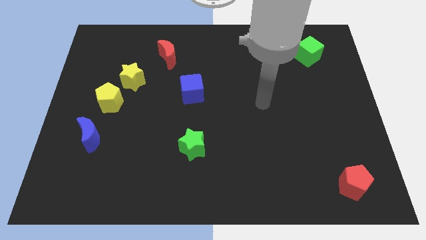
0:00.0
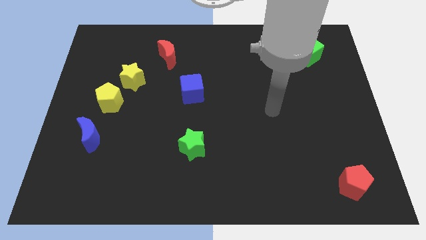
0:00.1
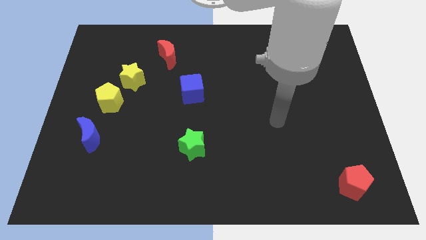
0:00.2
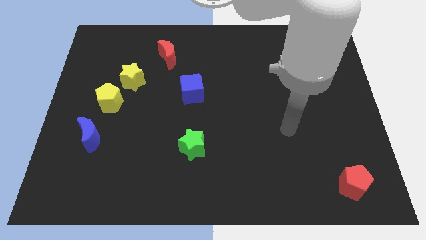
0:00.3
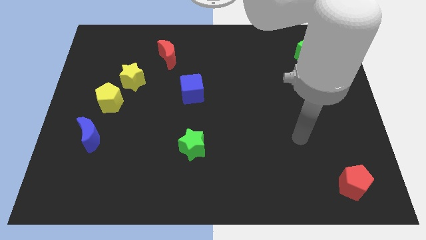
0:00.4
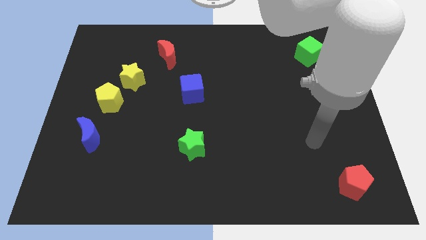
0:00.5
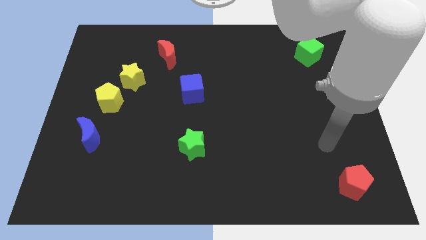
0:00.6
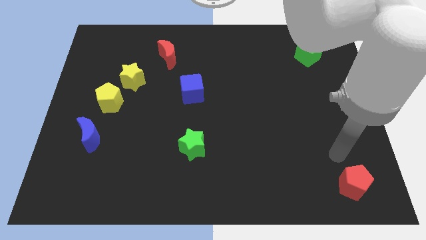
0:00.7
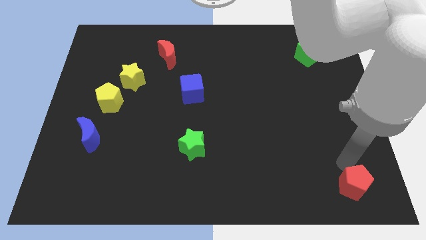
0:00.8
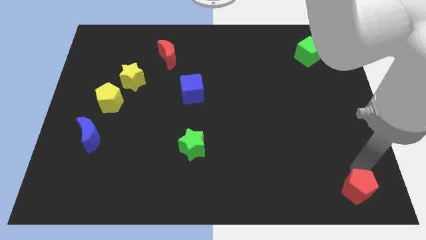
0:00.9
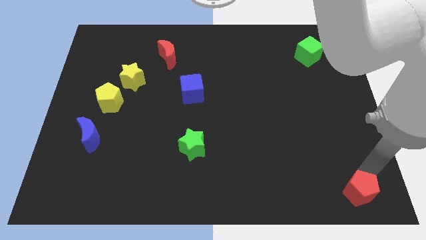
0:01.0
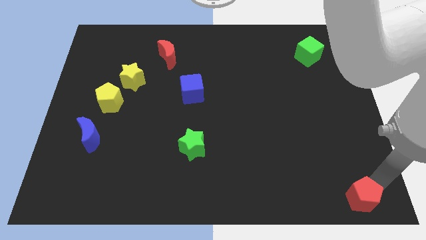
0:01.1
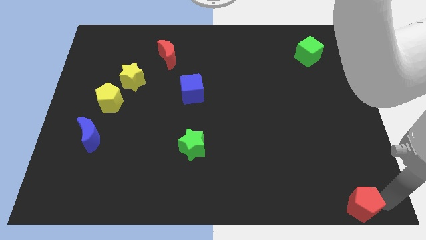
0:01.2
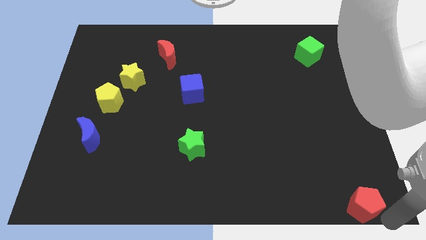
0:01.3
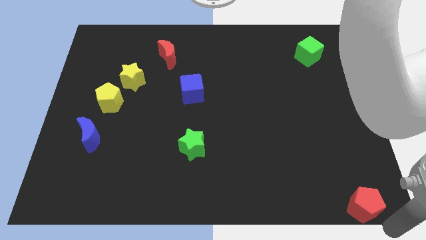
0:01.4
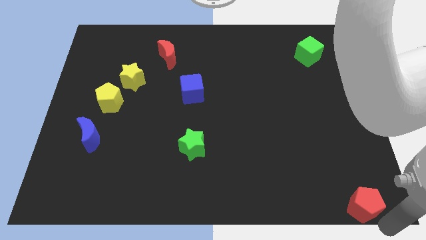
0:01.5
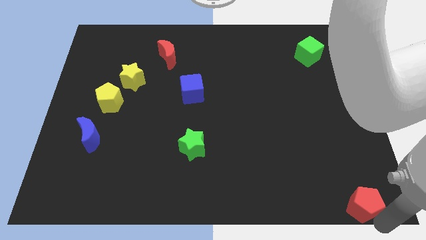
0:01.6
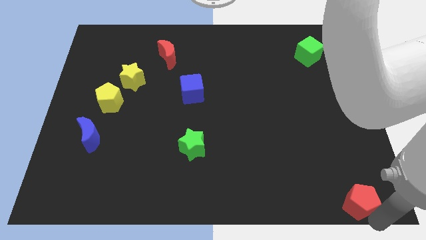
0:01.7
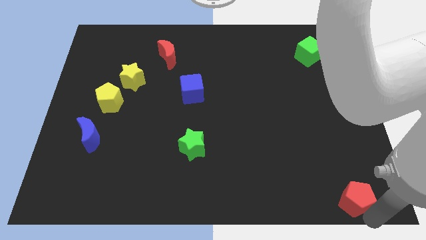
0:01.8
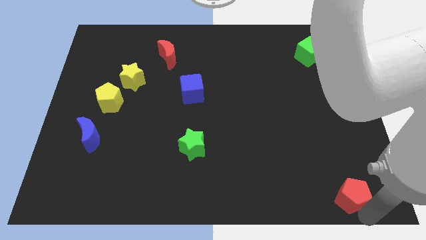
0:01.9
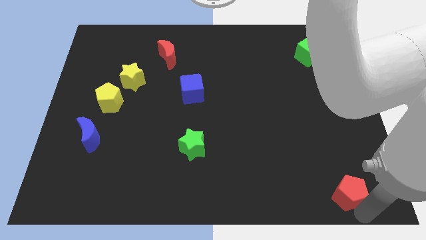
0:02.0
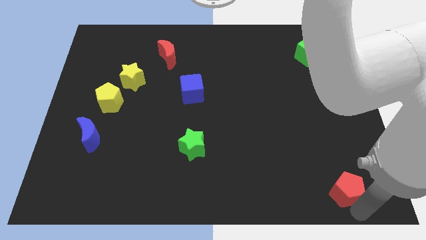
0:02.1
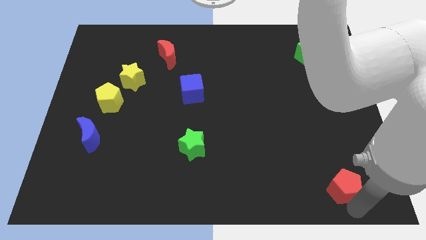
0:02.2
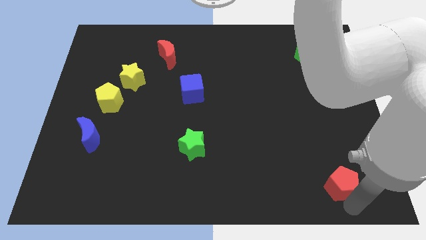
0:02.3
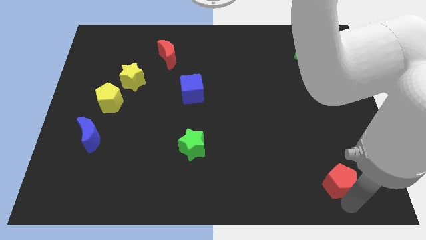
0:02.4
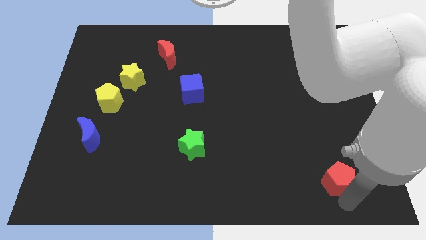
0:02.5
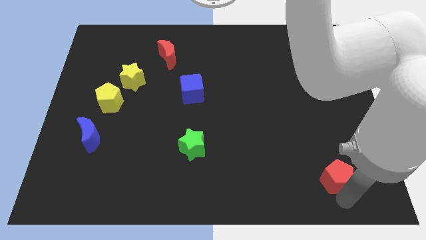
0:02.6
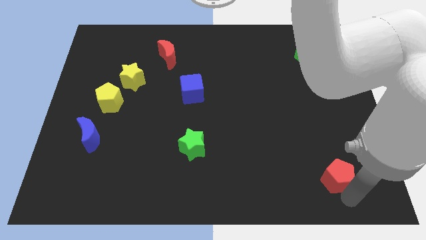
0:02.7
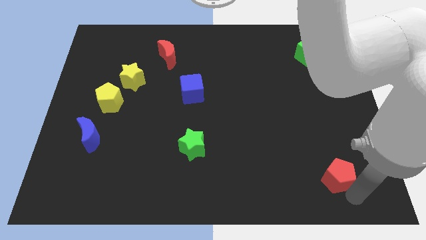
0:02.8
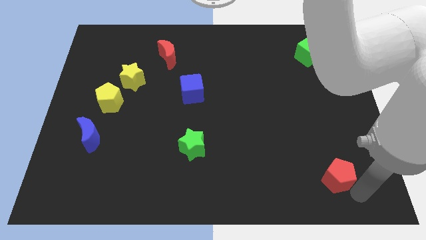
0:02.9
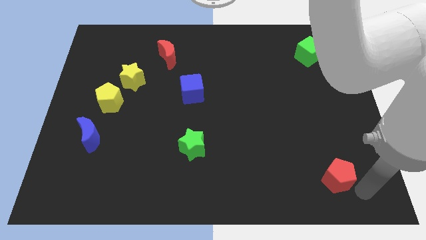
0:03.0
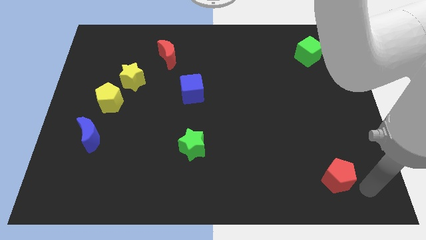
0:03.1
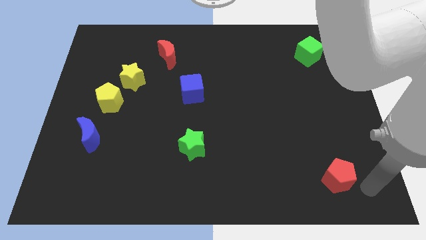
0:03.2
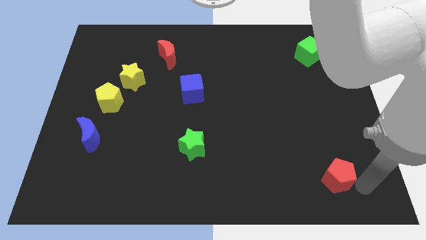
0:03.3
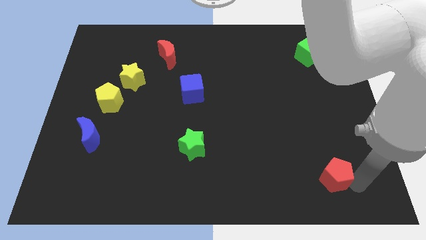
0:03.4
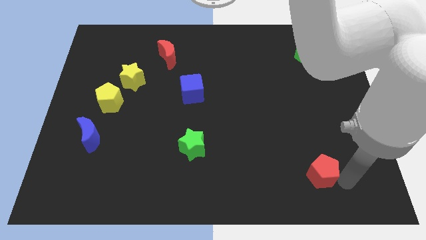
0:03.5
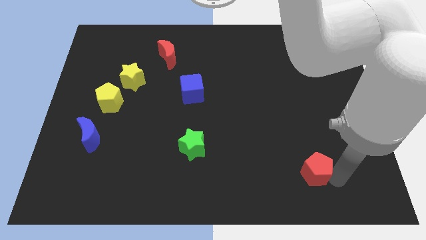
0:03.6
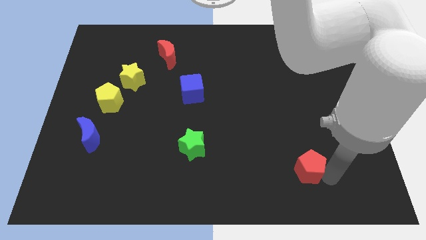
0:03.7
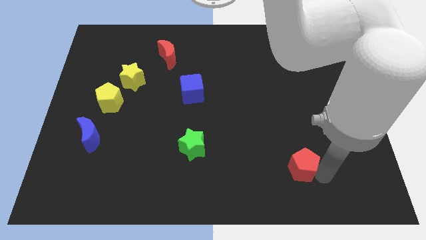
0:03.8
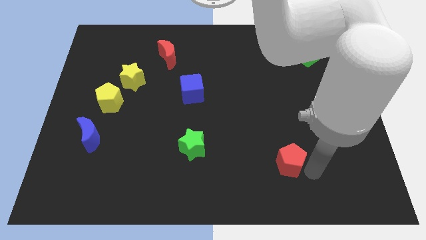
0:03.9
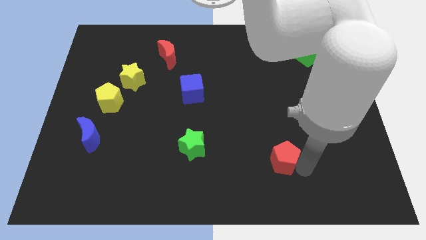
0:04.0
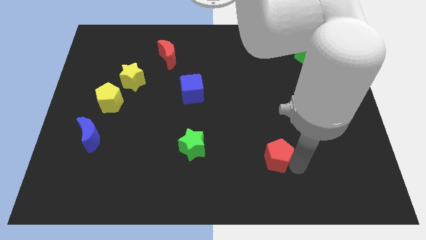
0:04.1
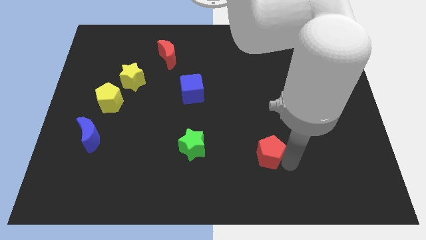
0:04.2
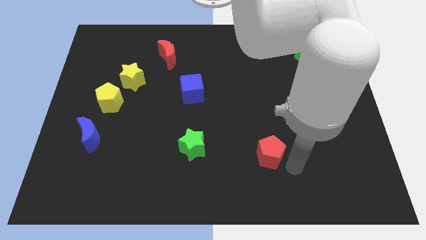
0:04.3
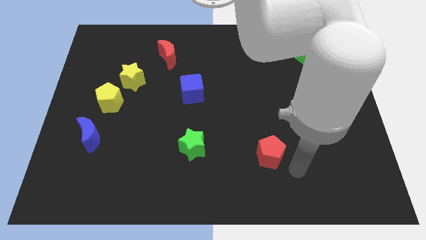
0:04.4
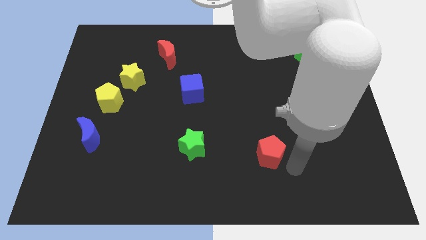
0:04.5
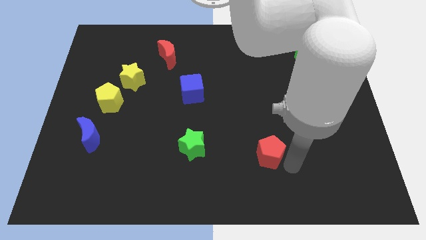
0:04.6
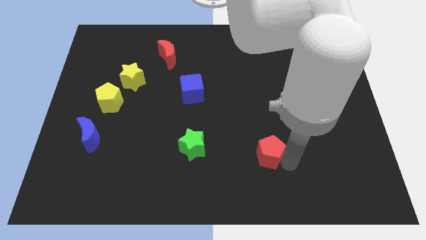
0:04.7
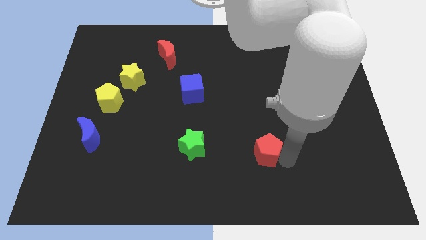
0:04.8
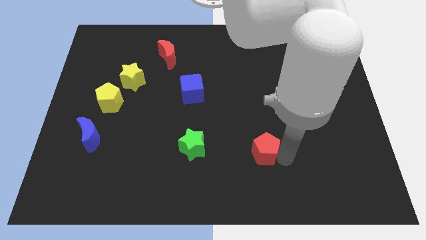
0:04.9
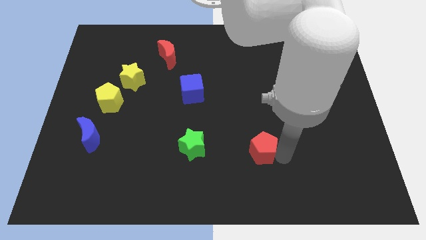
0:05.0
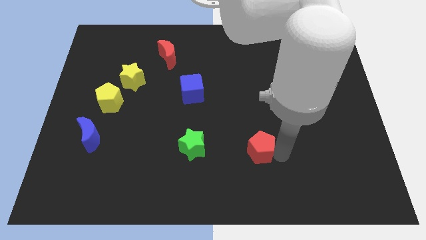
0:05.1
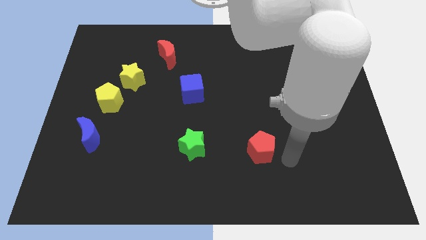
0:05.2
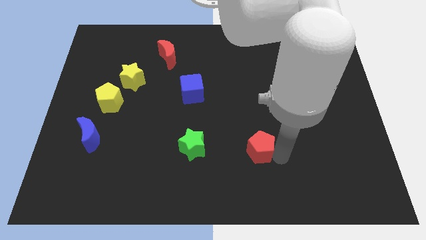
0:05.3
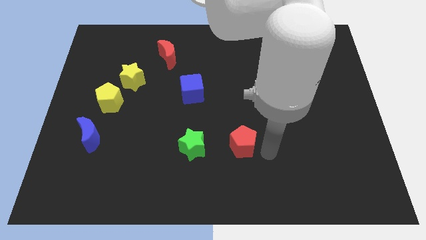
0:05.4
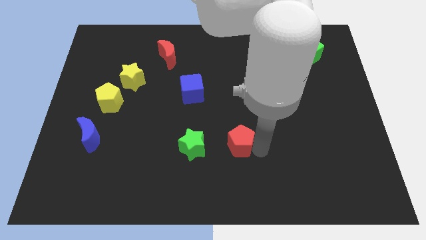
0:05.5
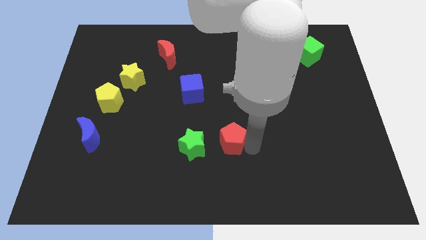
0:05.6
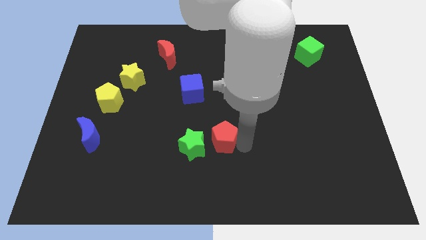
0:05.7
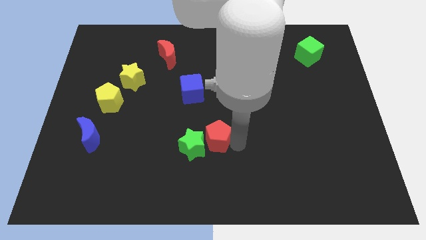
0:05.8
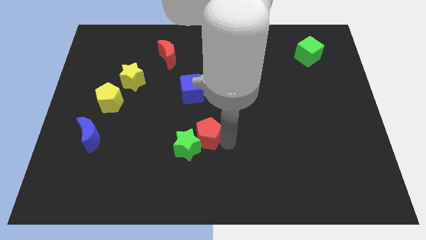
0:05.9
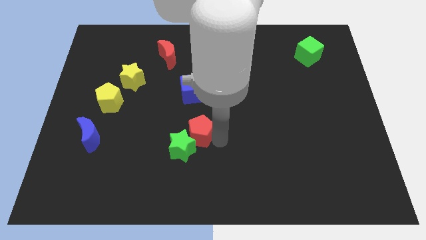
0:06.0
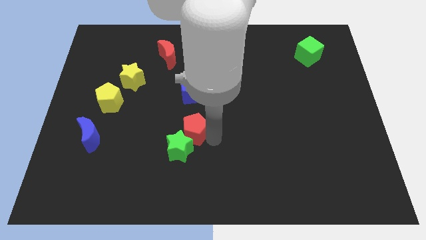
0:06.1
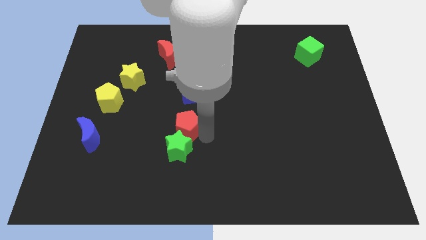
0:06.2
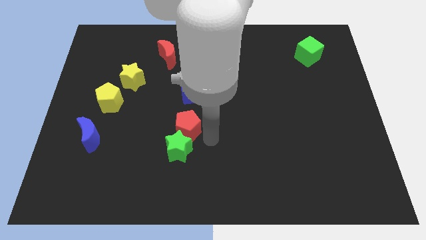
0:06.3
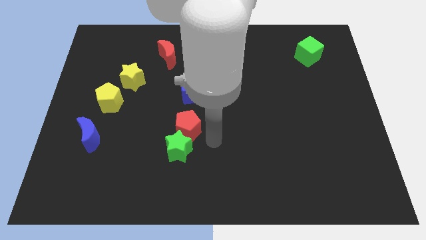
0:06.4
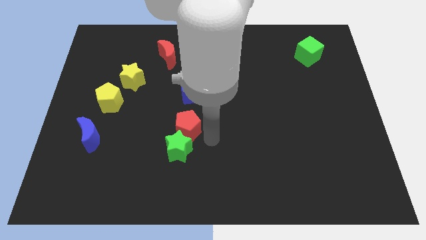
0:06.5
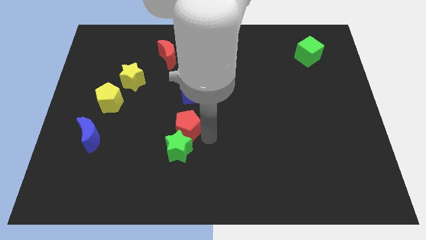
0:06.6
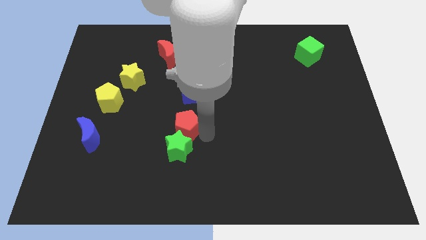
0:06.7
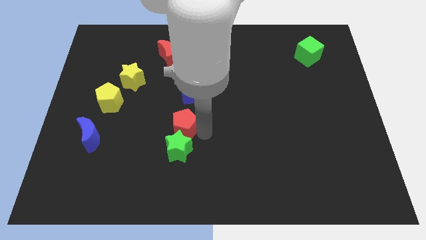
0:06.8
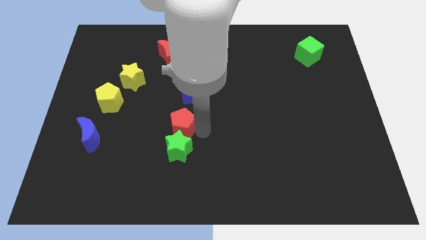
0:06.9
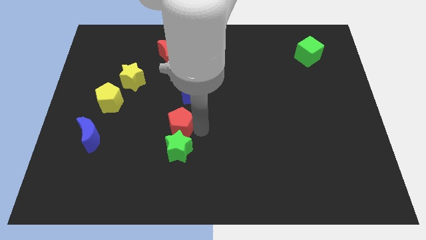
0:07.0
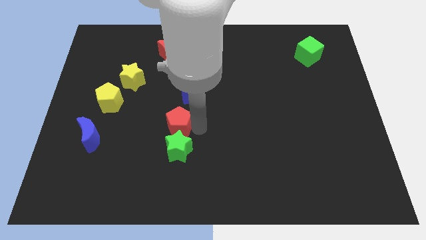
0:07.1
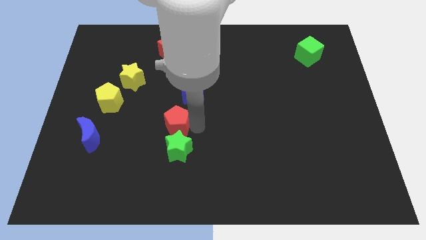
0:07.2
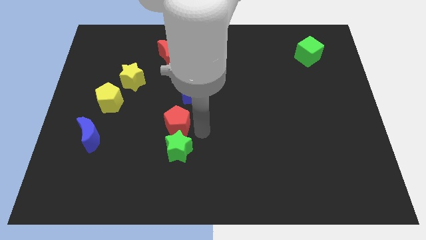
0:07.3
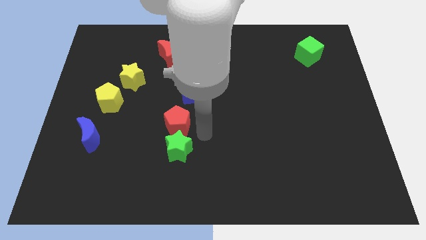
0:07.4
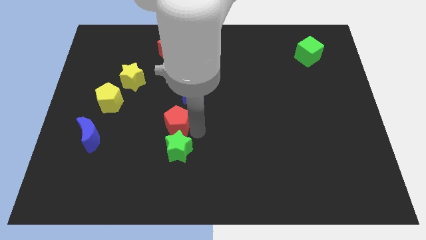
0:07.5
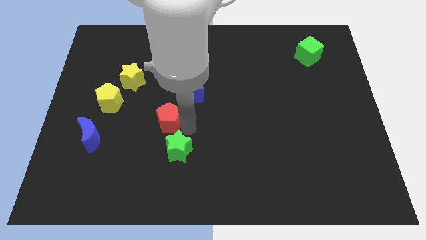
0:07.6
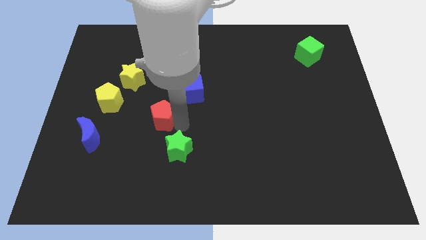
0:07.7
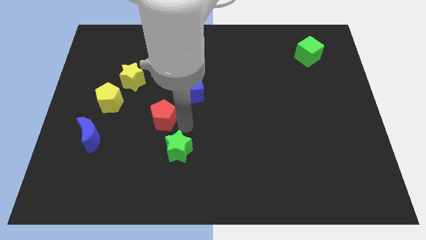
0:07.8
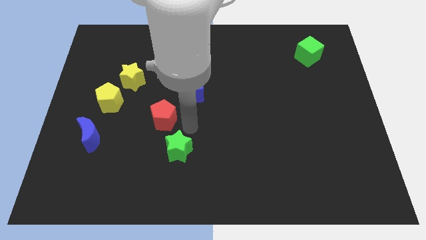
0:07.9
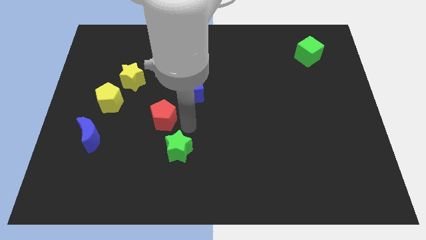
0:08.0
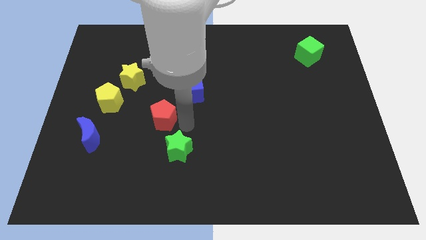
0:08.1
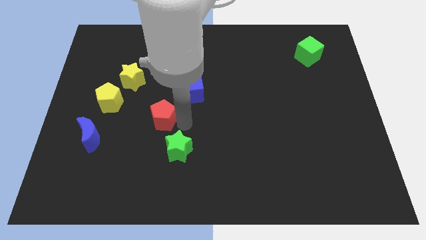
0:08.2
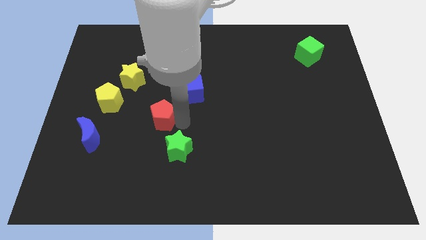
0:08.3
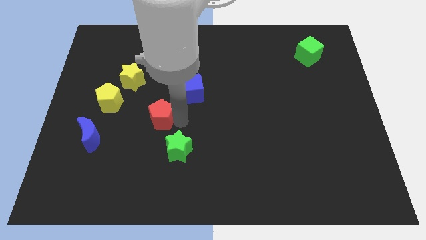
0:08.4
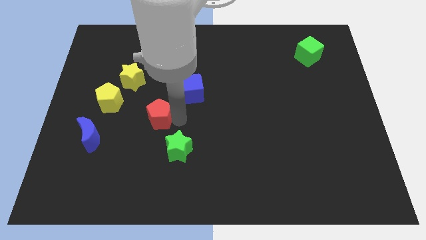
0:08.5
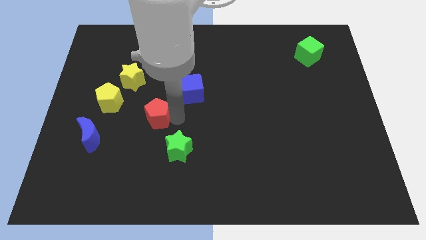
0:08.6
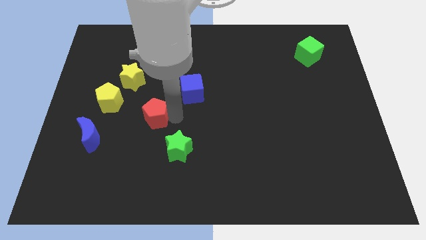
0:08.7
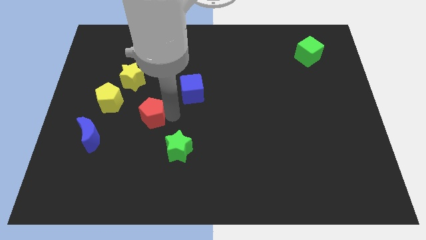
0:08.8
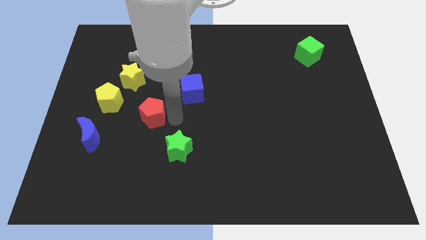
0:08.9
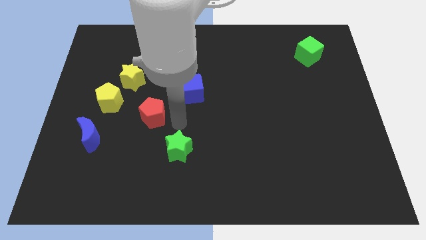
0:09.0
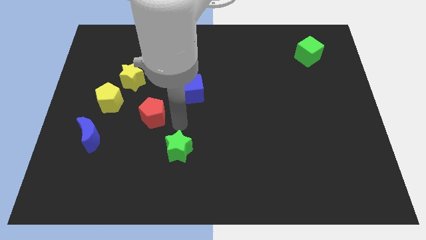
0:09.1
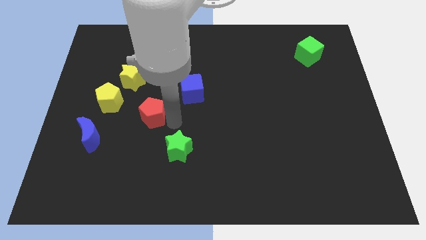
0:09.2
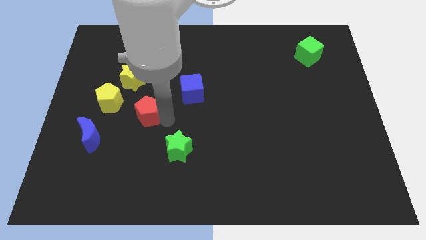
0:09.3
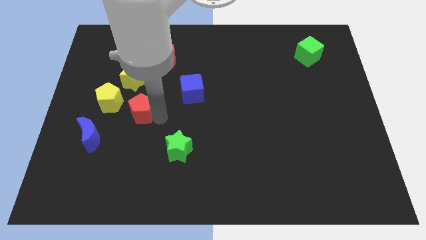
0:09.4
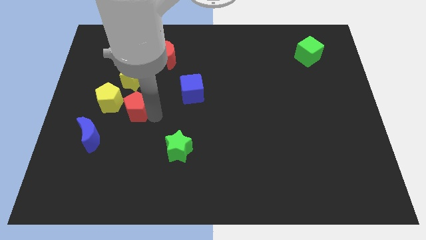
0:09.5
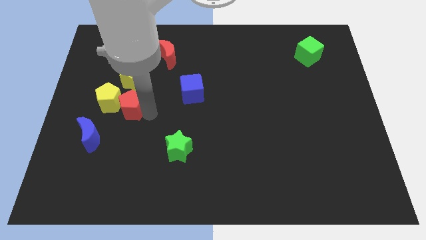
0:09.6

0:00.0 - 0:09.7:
push the red pentagon next to the yellow pentagon
